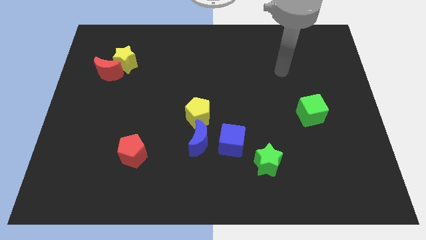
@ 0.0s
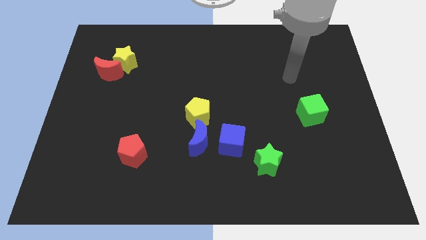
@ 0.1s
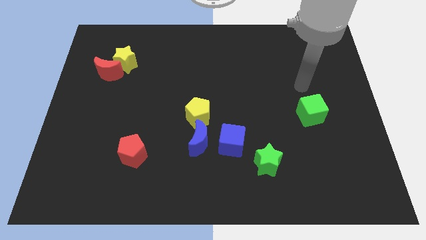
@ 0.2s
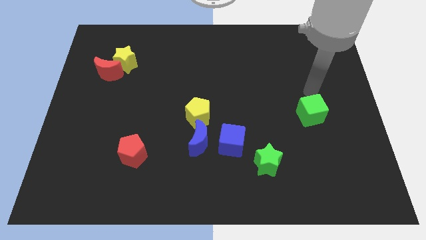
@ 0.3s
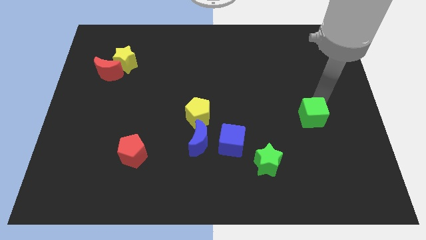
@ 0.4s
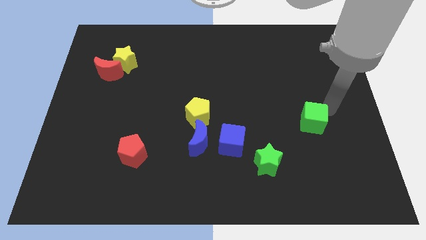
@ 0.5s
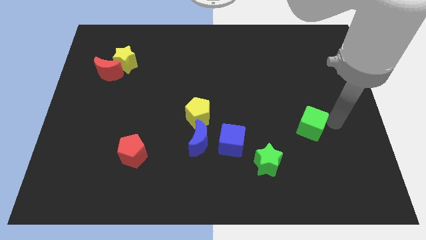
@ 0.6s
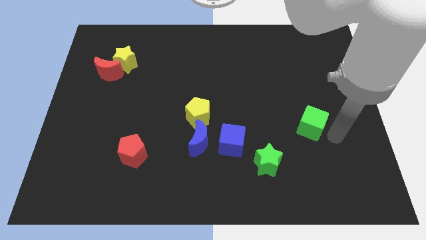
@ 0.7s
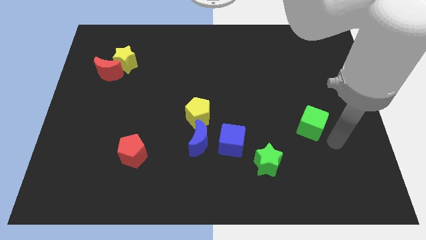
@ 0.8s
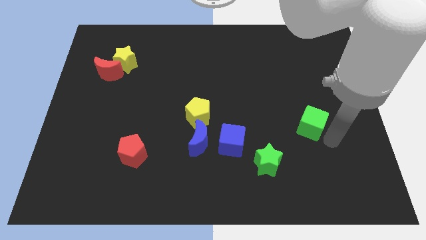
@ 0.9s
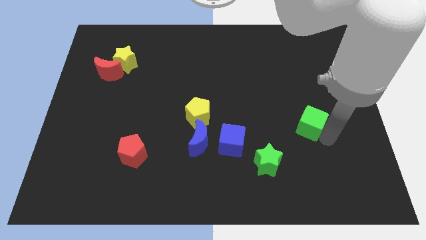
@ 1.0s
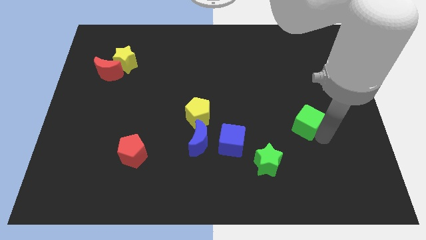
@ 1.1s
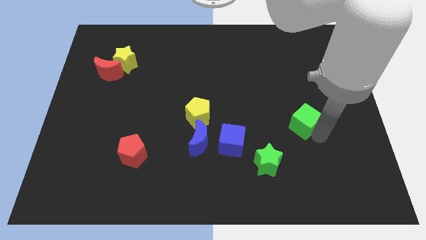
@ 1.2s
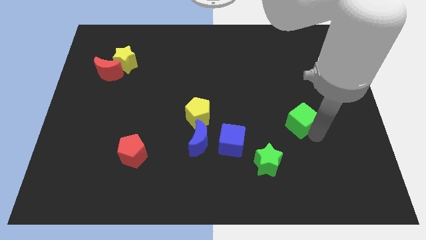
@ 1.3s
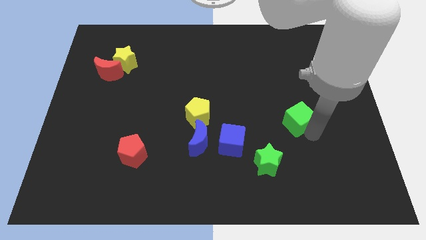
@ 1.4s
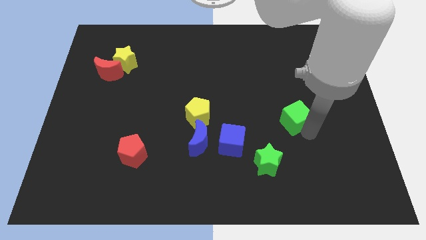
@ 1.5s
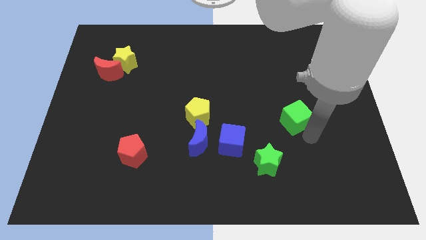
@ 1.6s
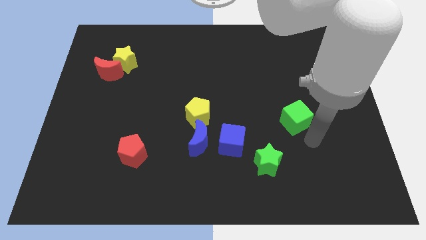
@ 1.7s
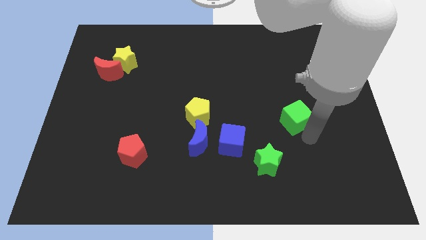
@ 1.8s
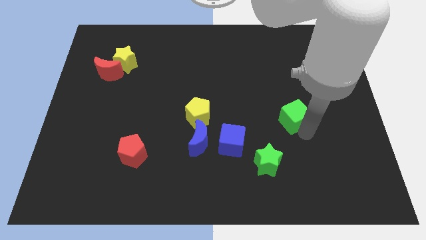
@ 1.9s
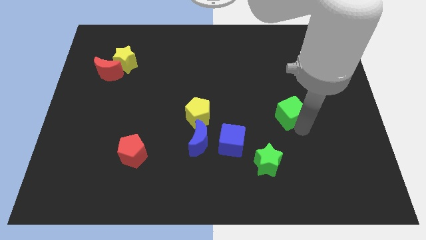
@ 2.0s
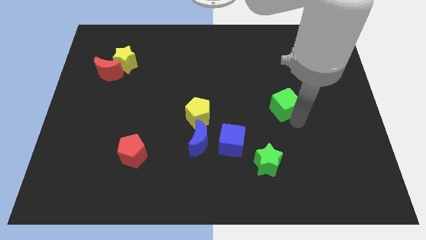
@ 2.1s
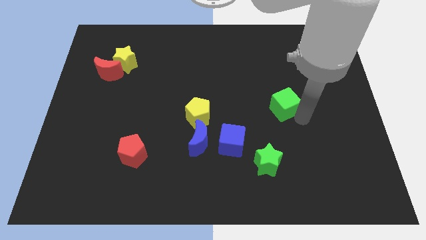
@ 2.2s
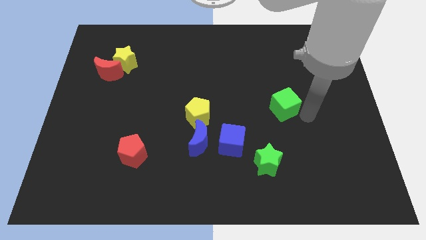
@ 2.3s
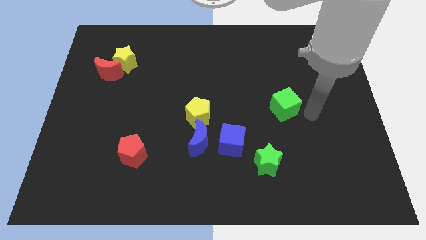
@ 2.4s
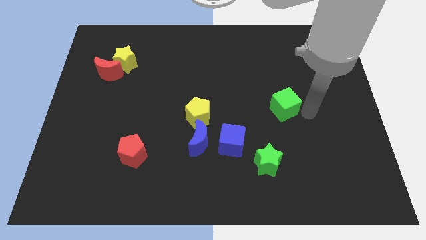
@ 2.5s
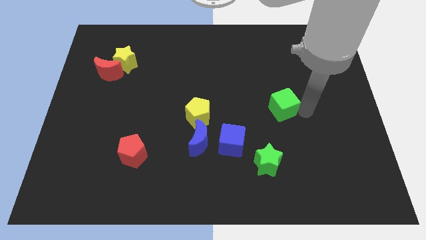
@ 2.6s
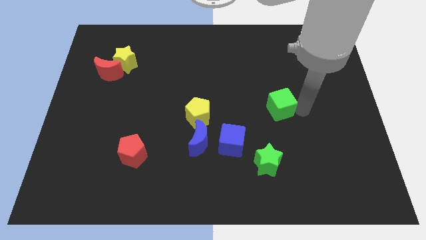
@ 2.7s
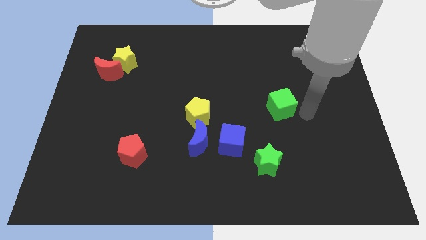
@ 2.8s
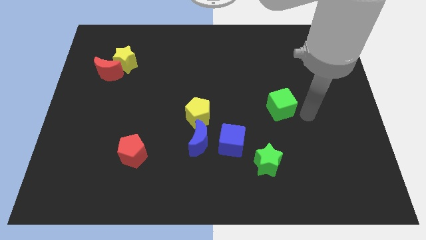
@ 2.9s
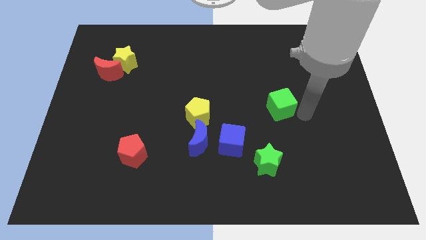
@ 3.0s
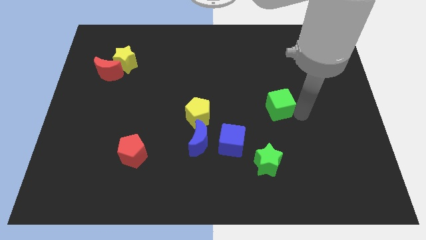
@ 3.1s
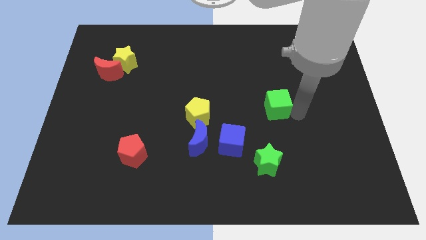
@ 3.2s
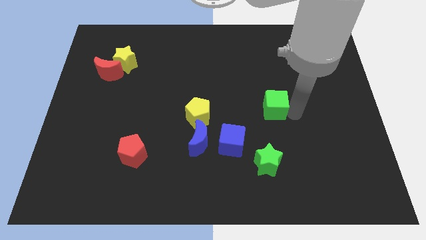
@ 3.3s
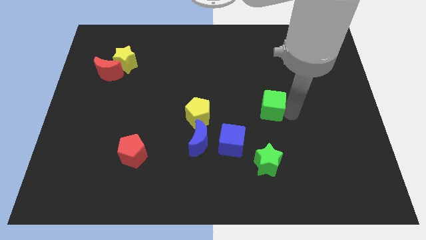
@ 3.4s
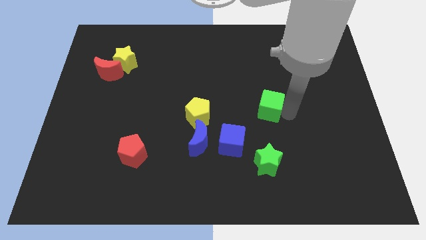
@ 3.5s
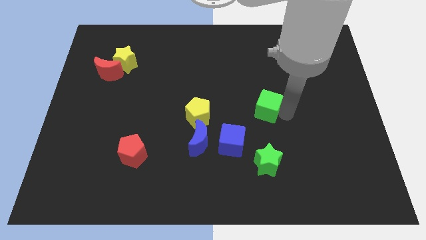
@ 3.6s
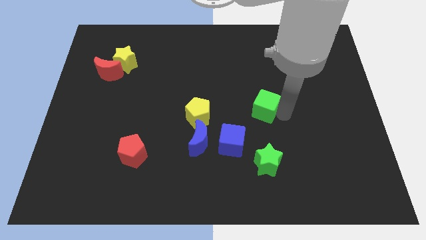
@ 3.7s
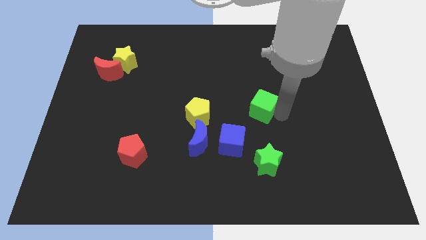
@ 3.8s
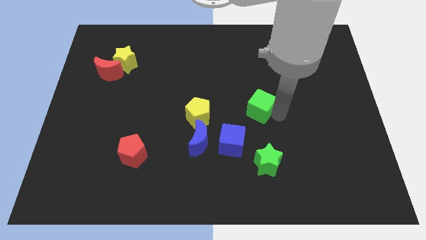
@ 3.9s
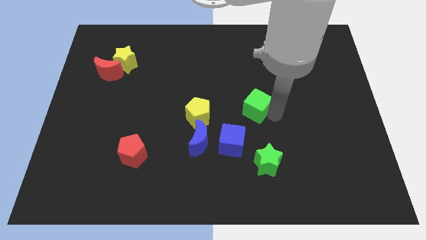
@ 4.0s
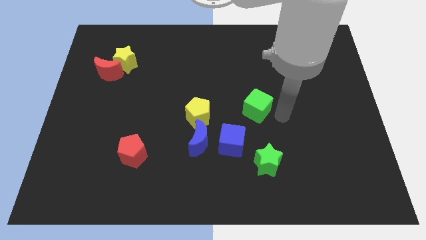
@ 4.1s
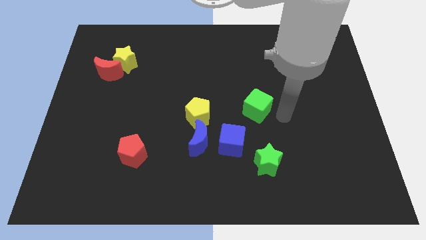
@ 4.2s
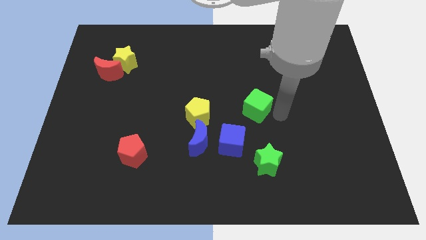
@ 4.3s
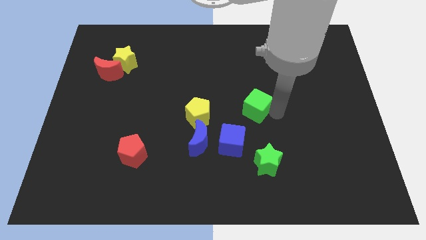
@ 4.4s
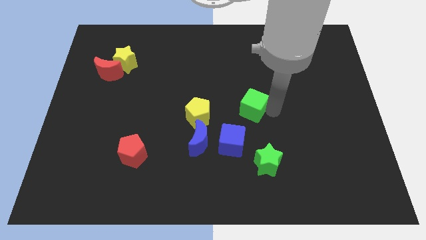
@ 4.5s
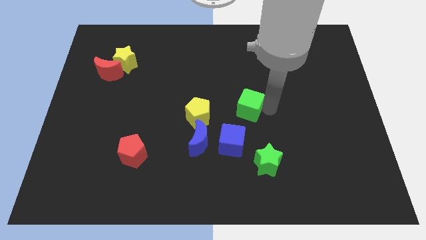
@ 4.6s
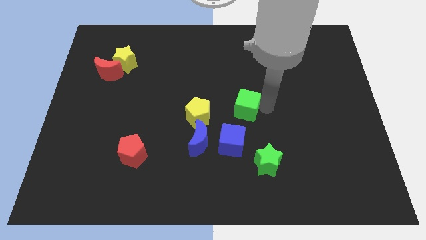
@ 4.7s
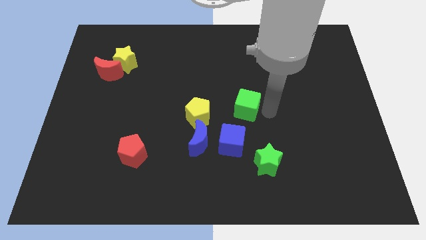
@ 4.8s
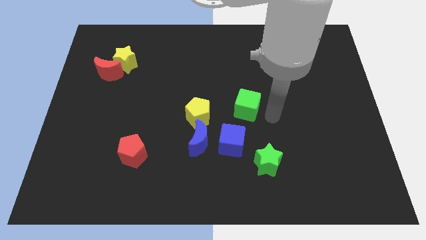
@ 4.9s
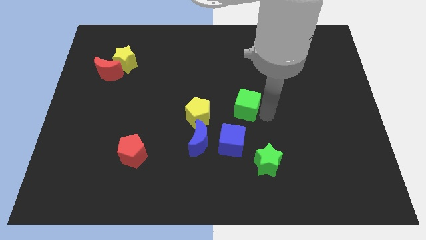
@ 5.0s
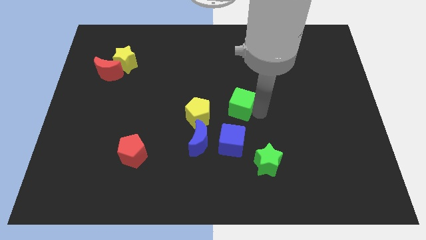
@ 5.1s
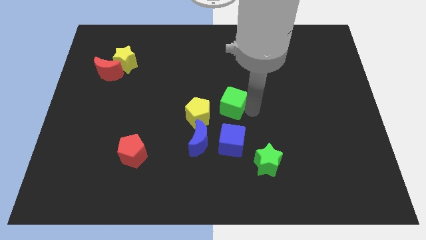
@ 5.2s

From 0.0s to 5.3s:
put the green cube to the top right side of the yellow pentagon

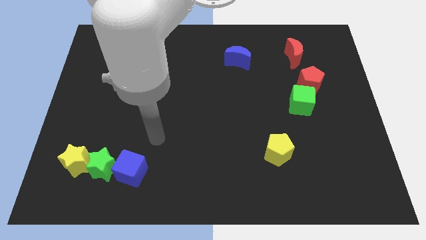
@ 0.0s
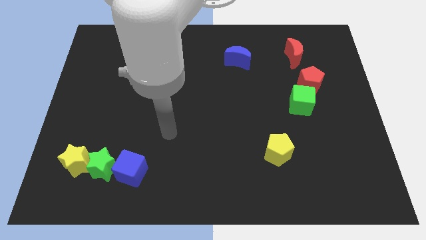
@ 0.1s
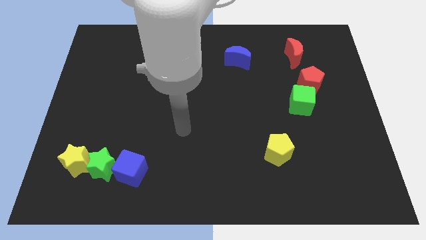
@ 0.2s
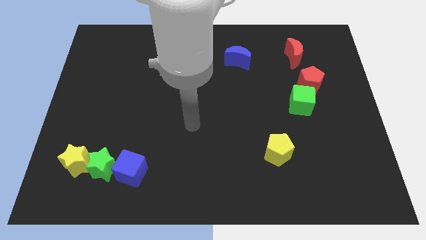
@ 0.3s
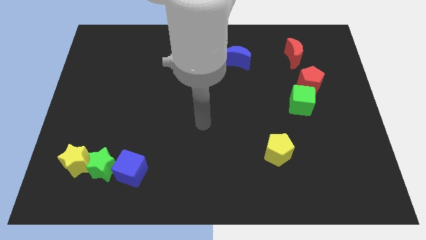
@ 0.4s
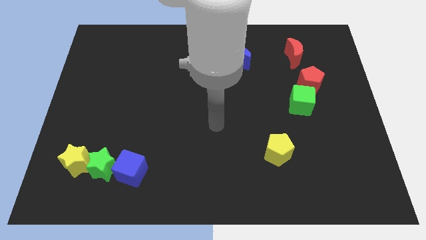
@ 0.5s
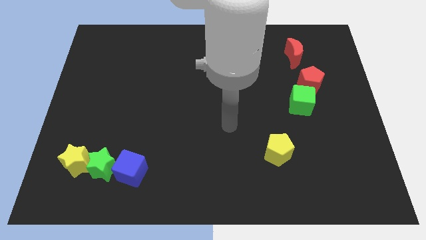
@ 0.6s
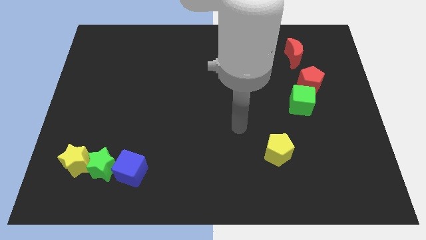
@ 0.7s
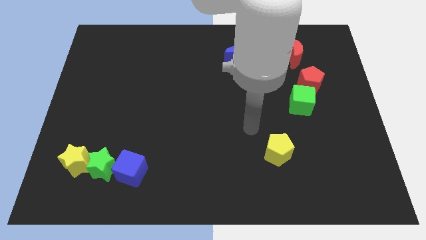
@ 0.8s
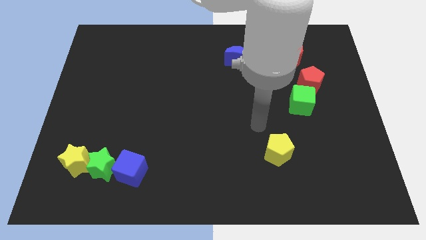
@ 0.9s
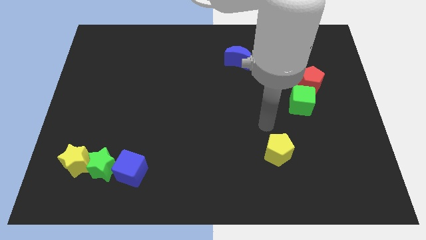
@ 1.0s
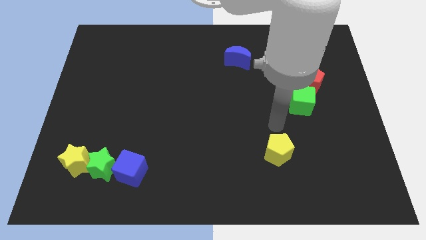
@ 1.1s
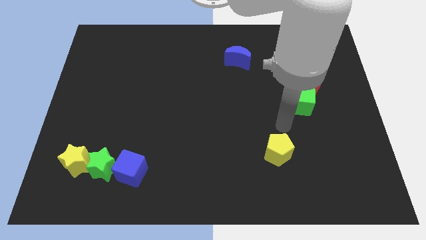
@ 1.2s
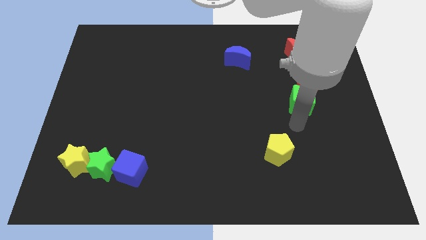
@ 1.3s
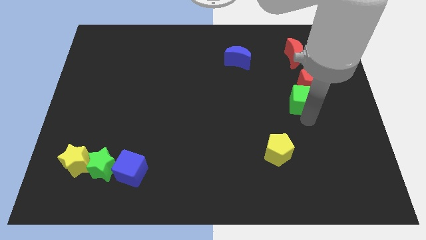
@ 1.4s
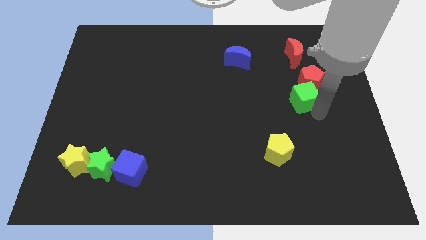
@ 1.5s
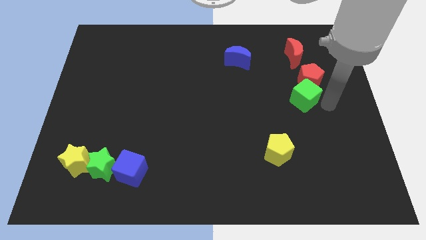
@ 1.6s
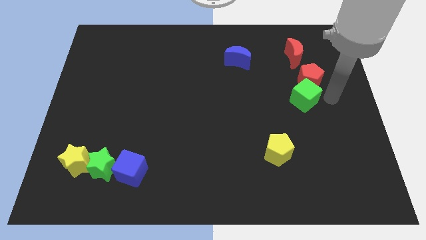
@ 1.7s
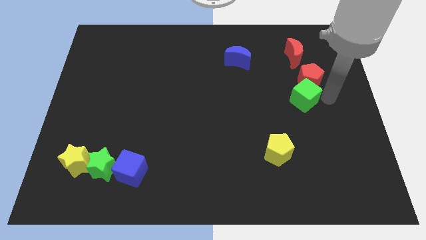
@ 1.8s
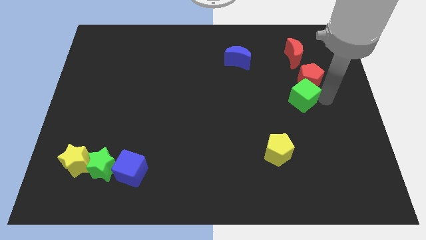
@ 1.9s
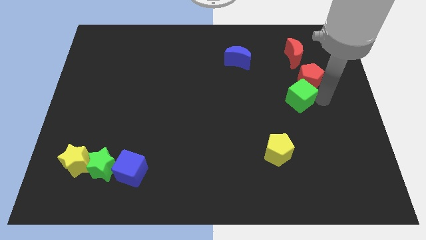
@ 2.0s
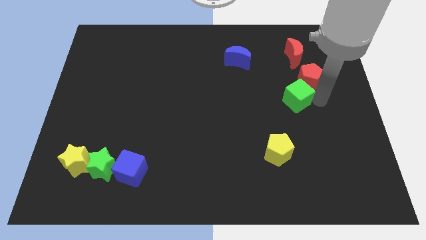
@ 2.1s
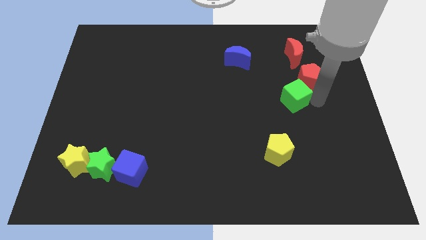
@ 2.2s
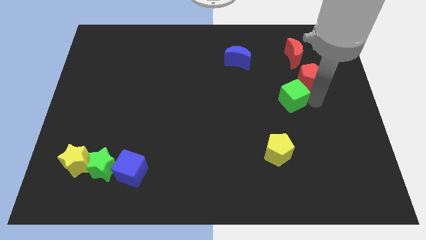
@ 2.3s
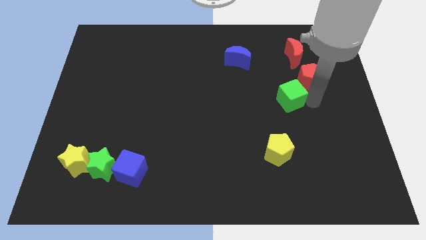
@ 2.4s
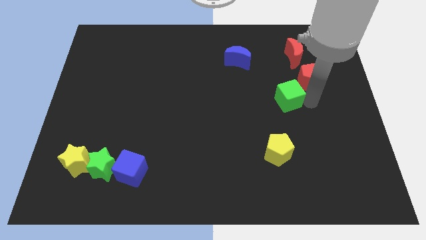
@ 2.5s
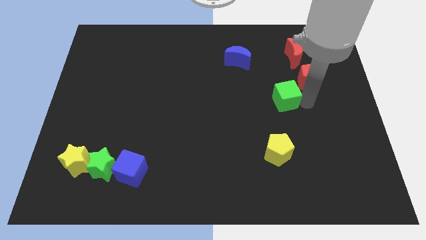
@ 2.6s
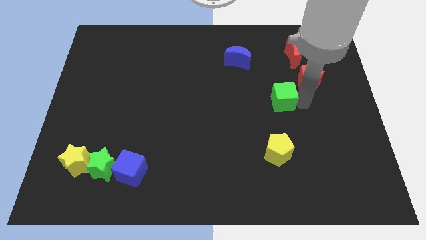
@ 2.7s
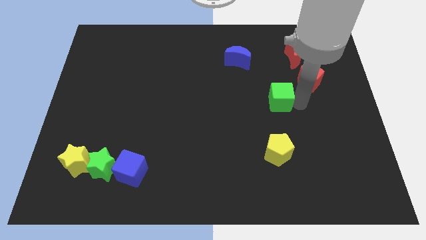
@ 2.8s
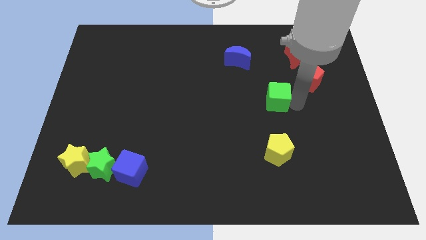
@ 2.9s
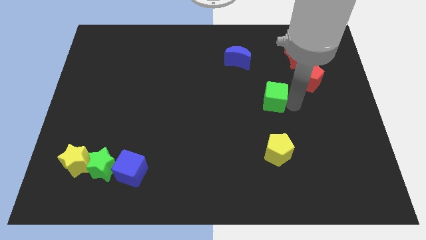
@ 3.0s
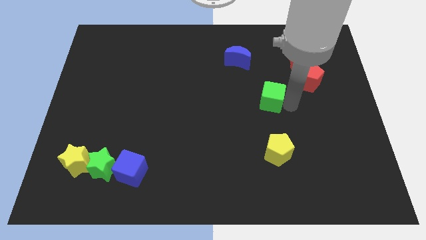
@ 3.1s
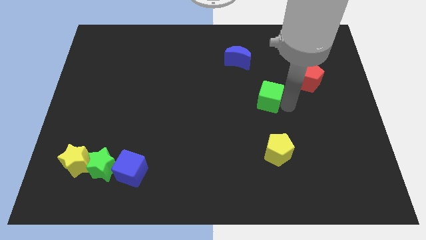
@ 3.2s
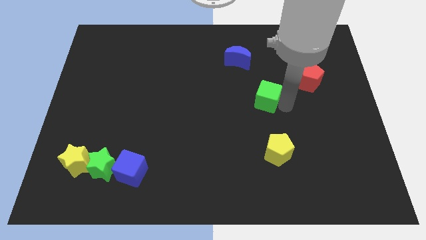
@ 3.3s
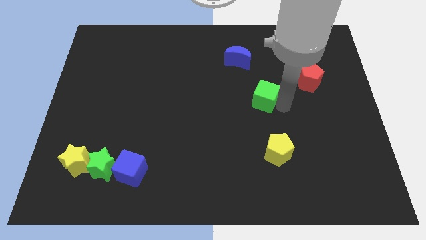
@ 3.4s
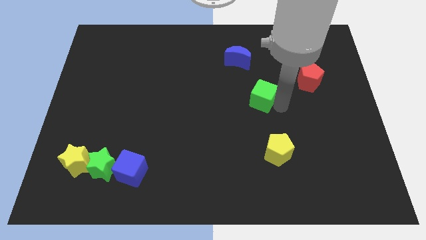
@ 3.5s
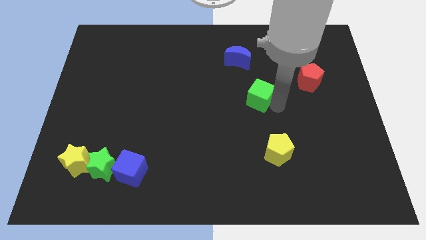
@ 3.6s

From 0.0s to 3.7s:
slide the green cube to the bottom of the blue moon
